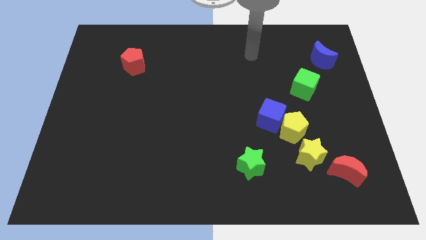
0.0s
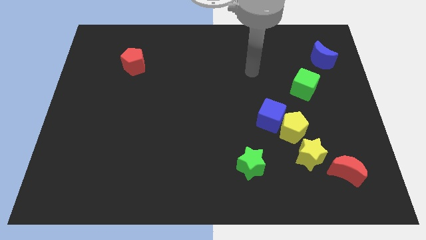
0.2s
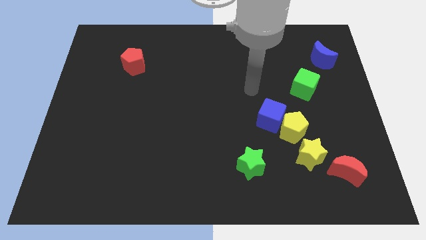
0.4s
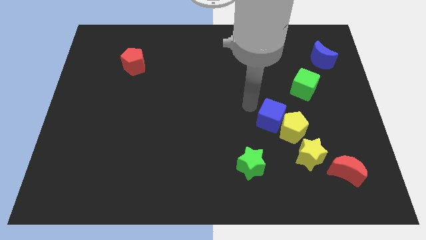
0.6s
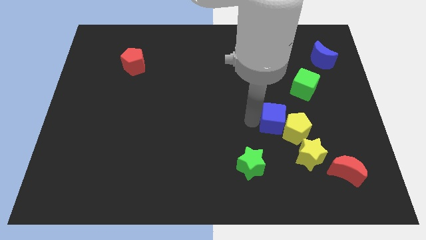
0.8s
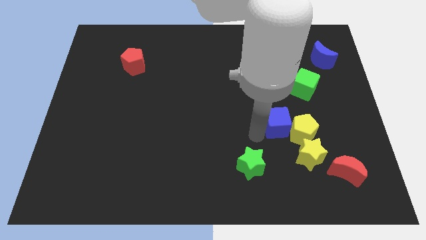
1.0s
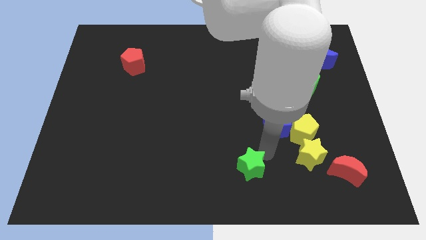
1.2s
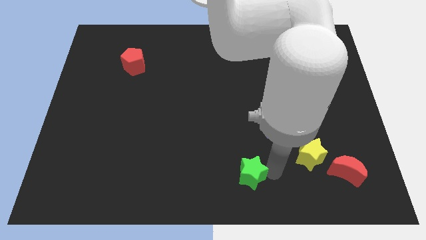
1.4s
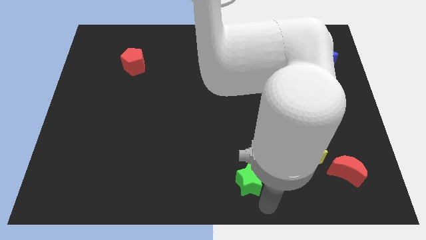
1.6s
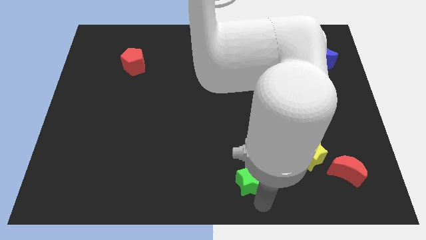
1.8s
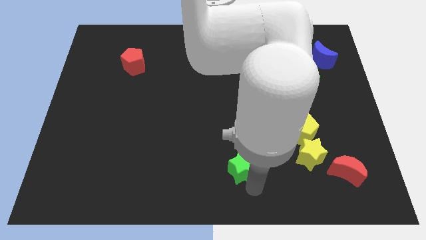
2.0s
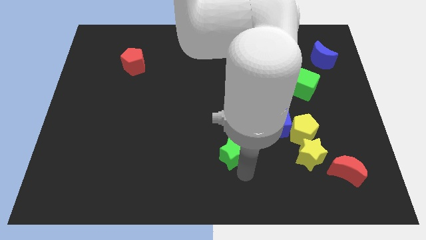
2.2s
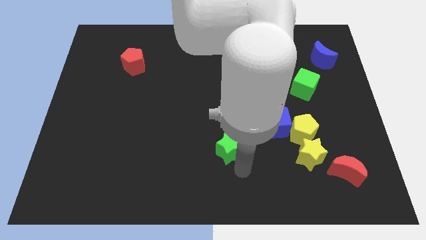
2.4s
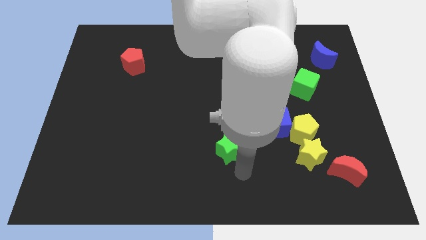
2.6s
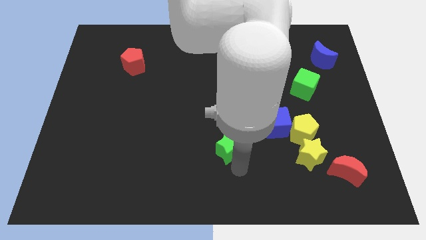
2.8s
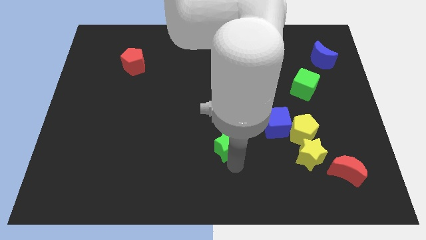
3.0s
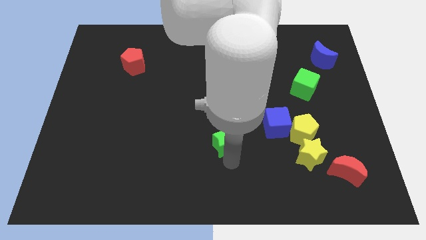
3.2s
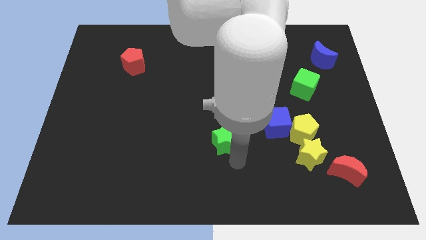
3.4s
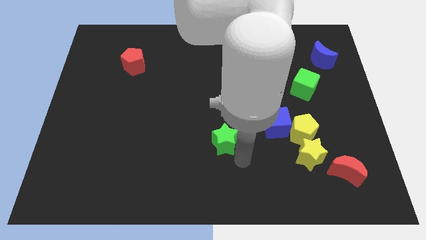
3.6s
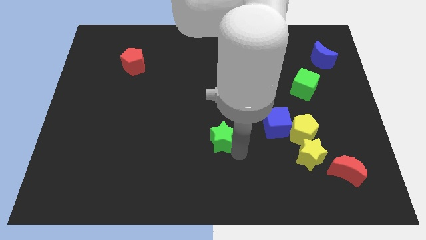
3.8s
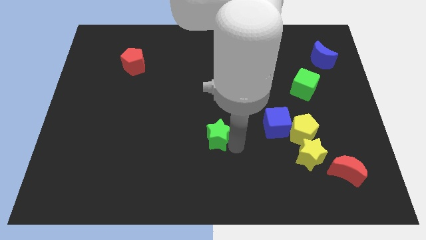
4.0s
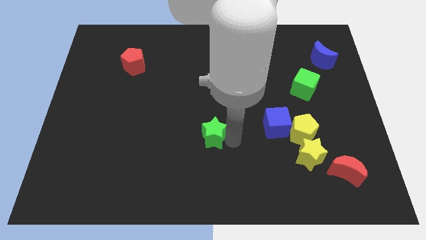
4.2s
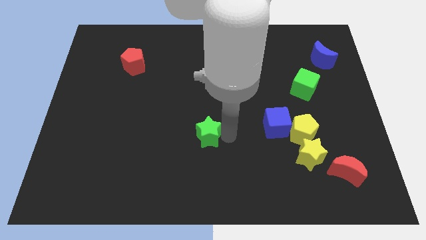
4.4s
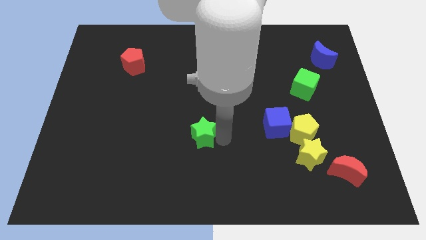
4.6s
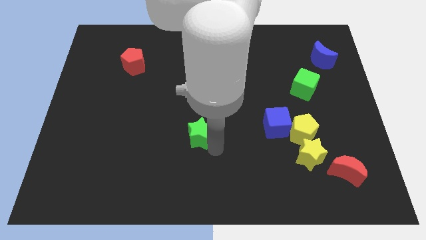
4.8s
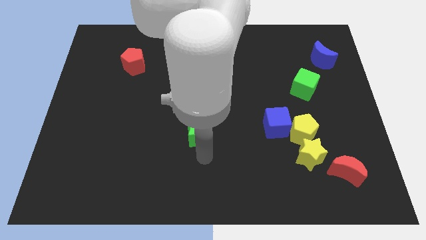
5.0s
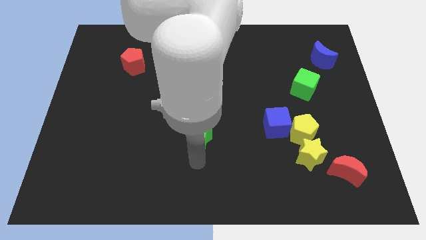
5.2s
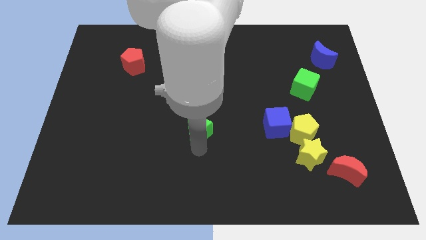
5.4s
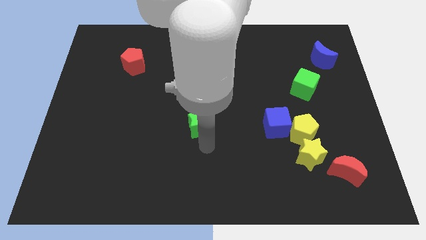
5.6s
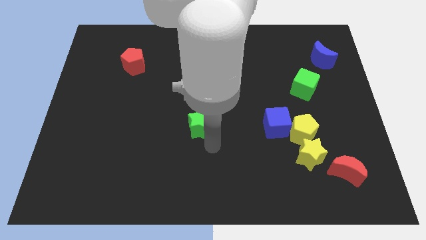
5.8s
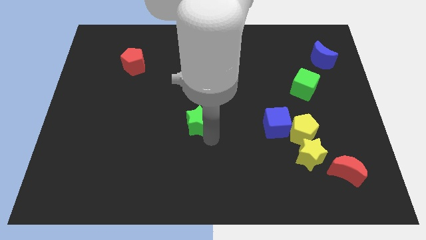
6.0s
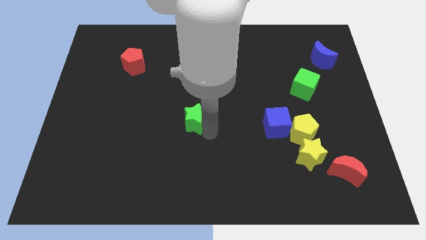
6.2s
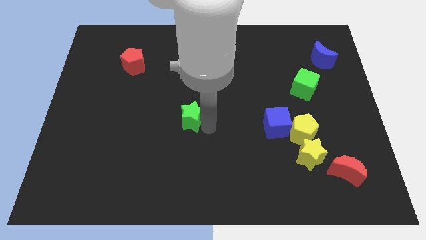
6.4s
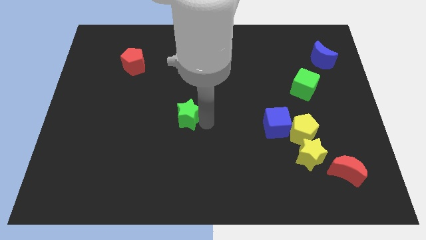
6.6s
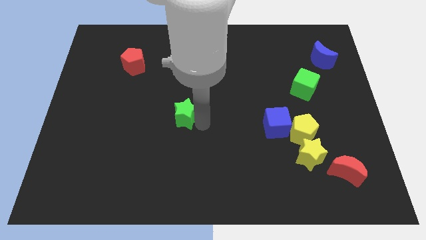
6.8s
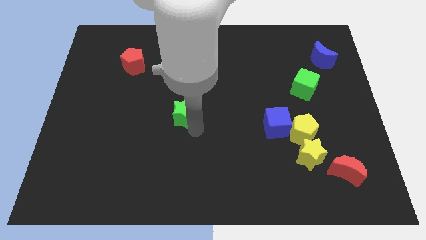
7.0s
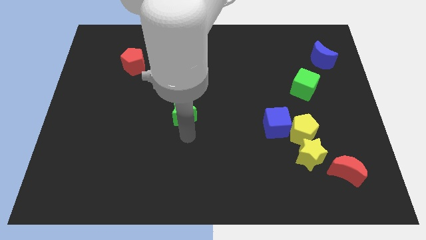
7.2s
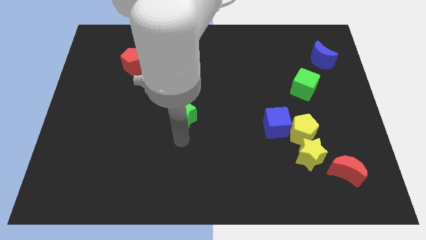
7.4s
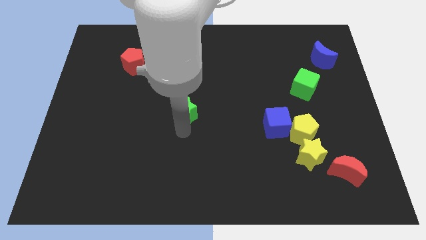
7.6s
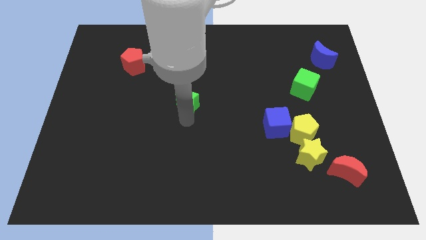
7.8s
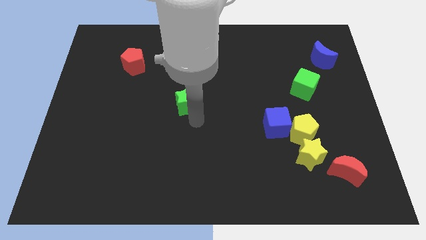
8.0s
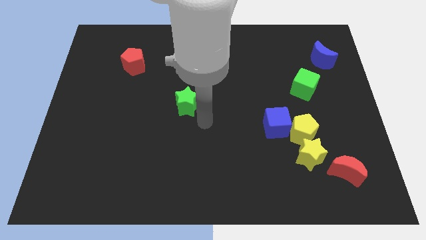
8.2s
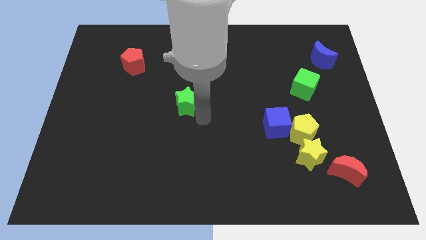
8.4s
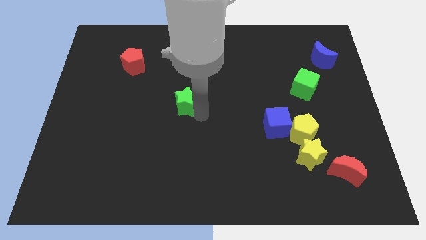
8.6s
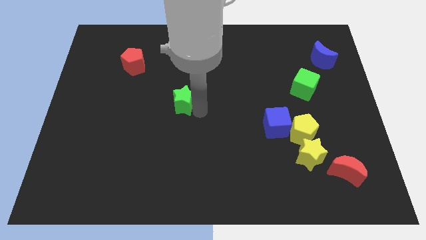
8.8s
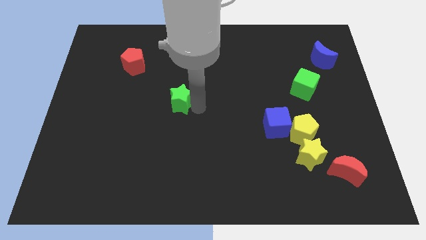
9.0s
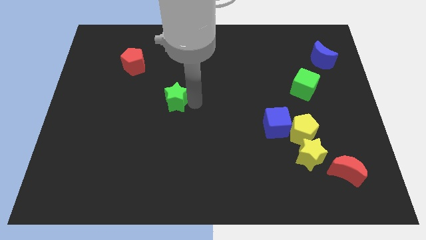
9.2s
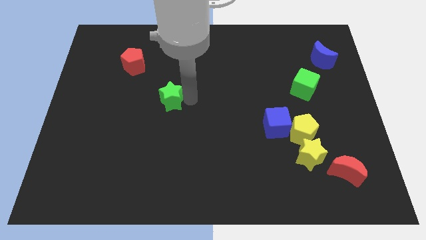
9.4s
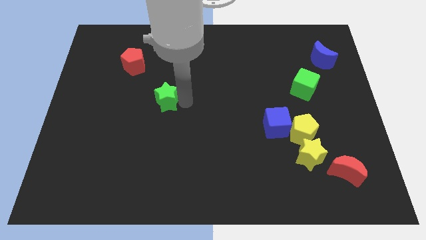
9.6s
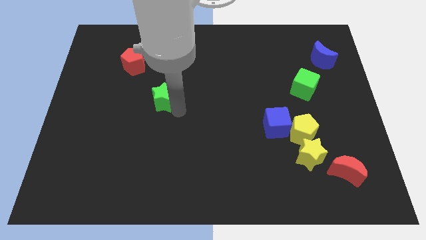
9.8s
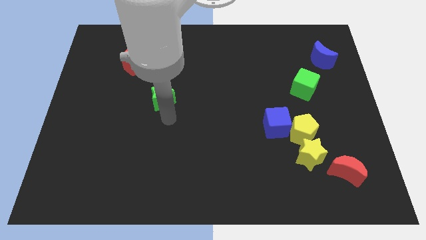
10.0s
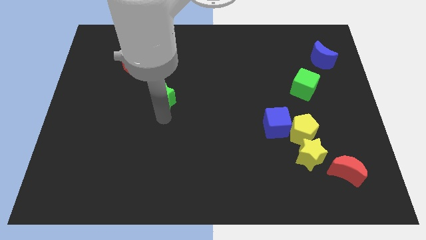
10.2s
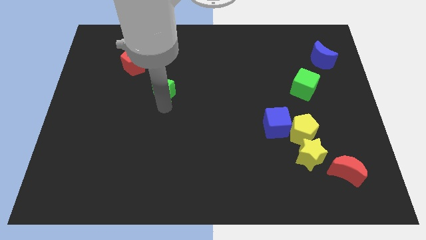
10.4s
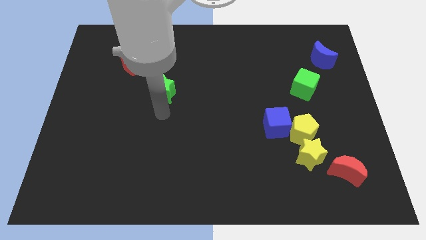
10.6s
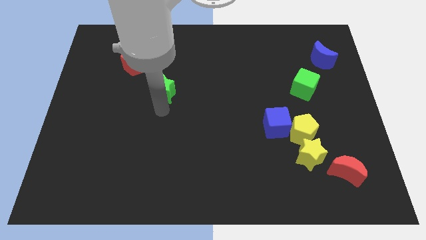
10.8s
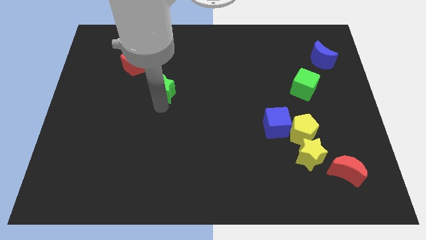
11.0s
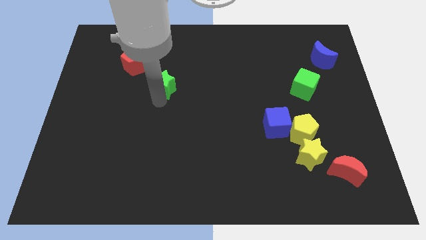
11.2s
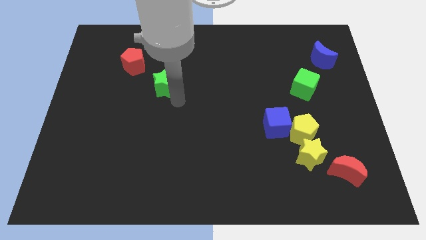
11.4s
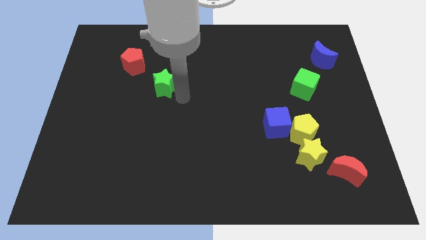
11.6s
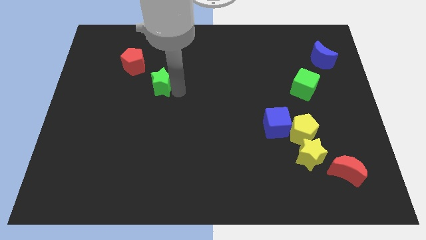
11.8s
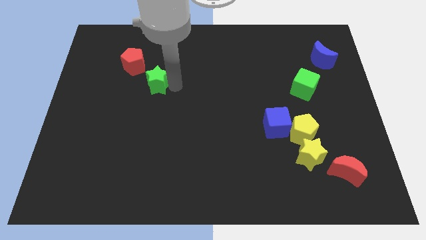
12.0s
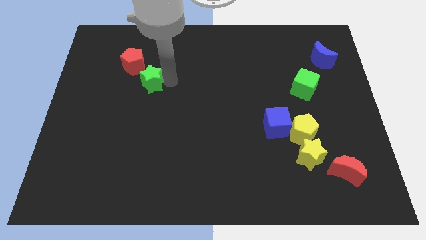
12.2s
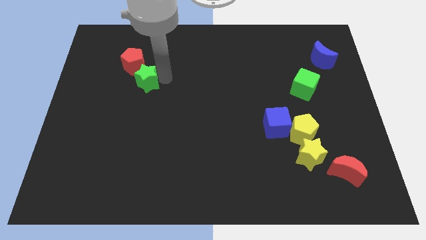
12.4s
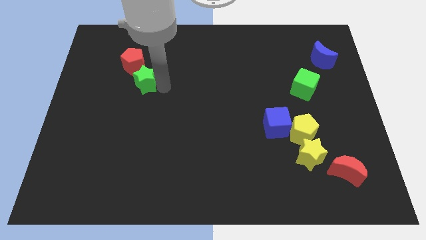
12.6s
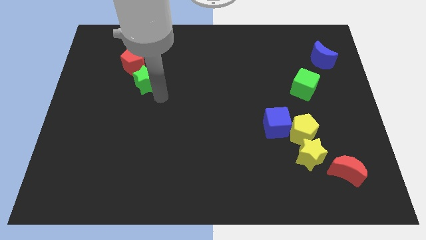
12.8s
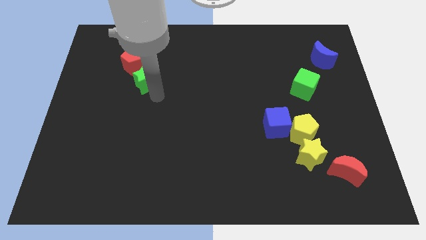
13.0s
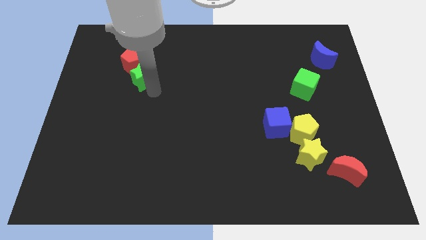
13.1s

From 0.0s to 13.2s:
move the green star close to the red pentagon
